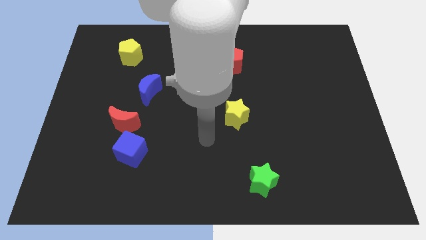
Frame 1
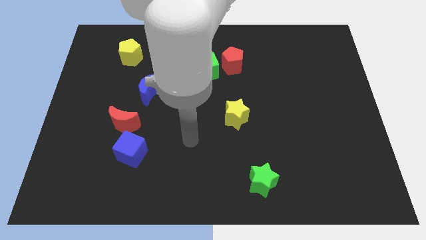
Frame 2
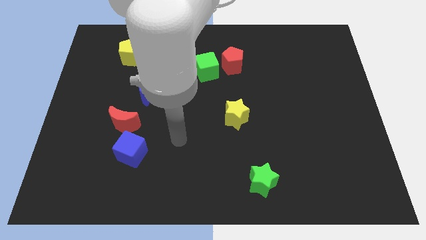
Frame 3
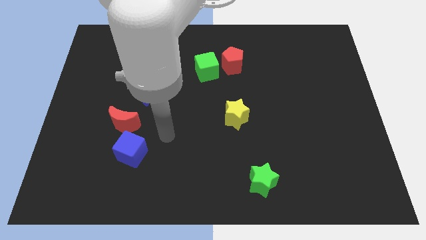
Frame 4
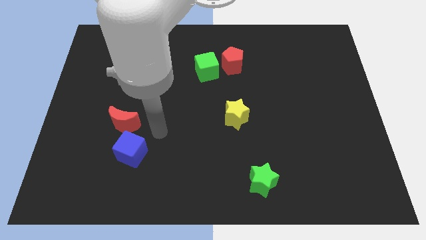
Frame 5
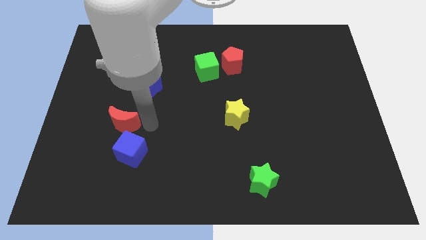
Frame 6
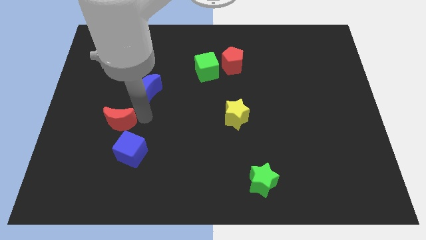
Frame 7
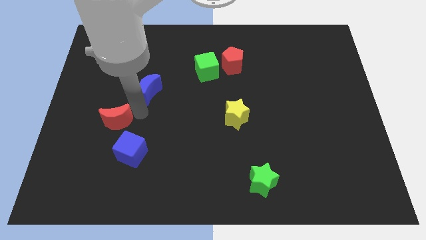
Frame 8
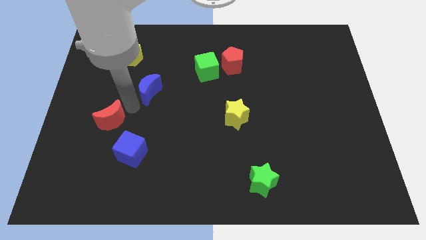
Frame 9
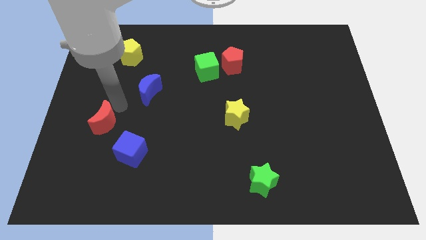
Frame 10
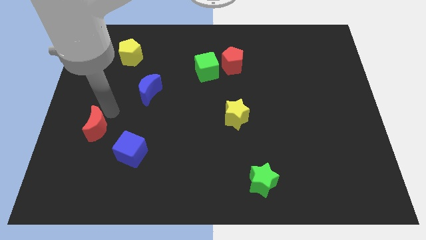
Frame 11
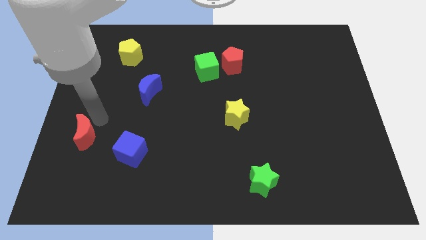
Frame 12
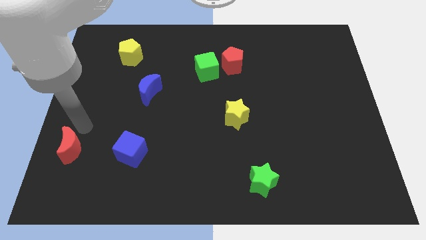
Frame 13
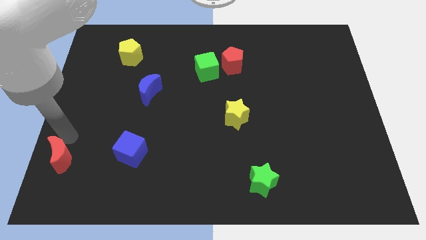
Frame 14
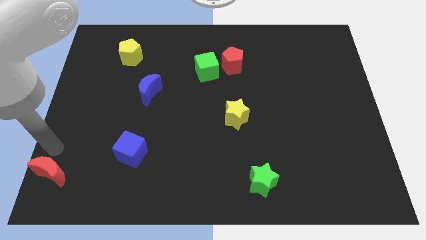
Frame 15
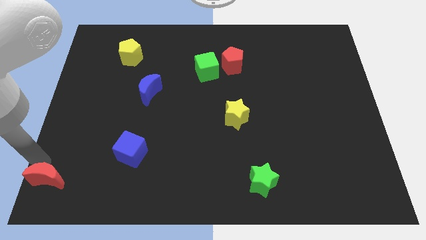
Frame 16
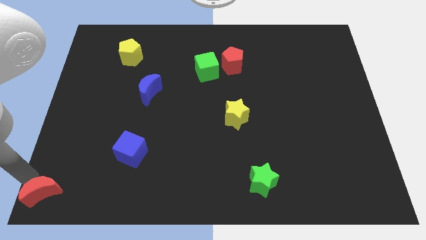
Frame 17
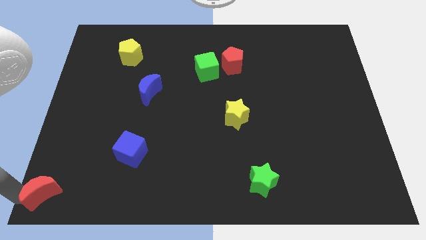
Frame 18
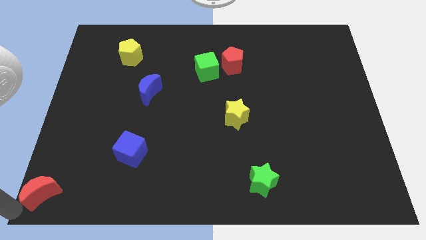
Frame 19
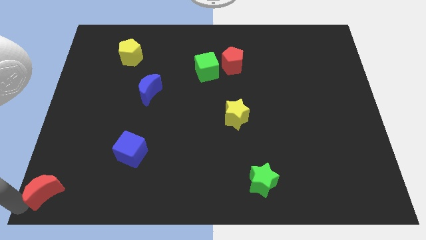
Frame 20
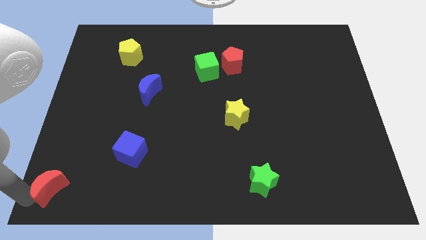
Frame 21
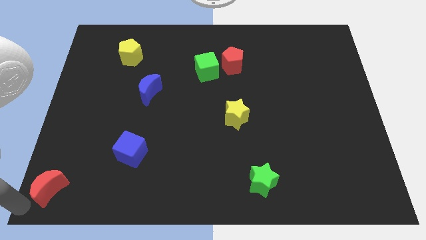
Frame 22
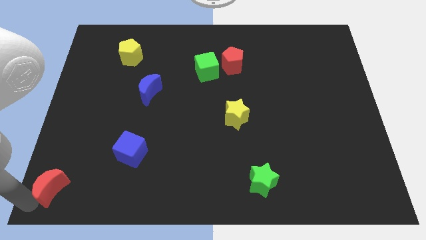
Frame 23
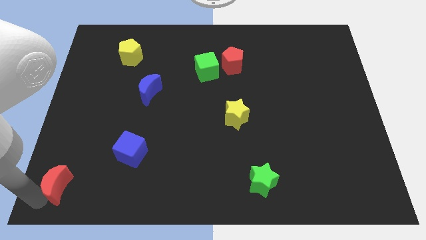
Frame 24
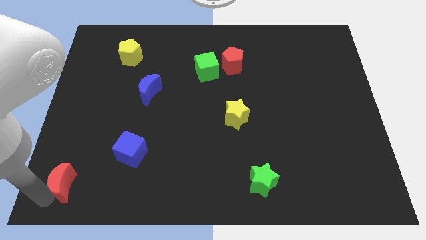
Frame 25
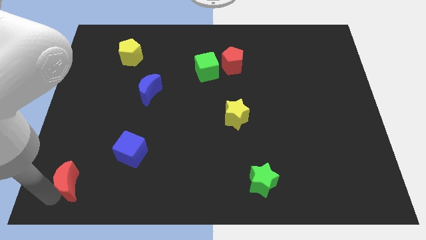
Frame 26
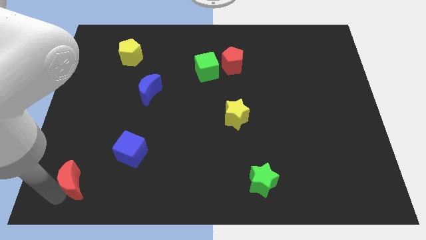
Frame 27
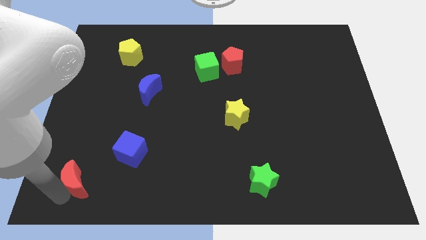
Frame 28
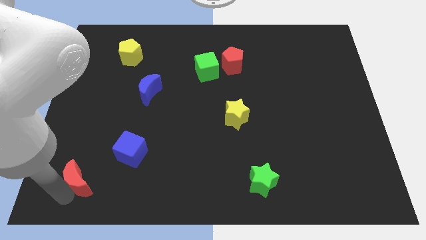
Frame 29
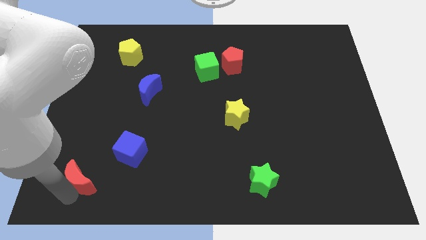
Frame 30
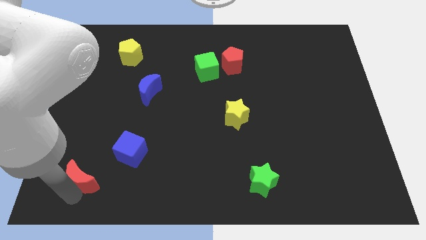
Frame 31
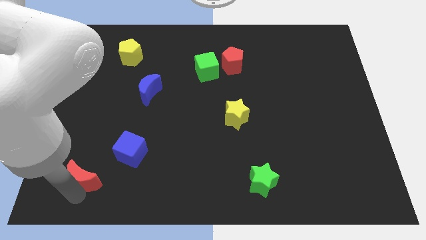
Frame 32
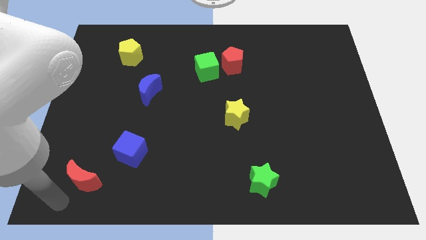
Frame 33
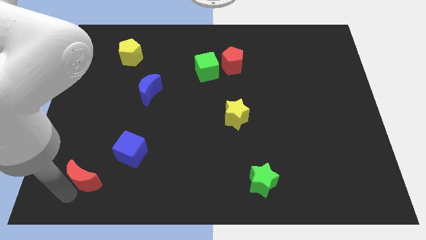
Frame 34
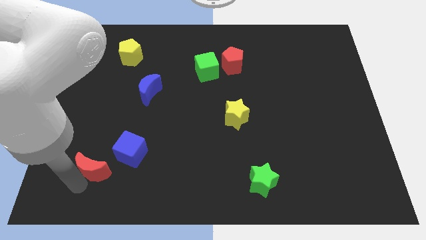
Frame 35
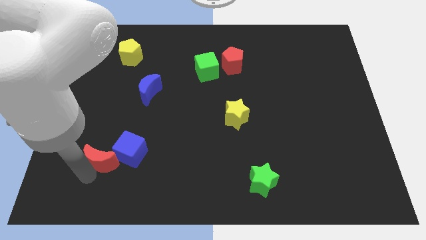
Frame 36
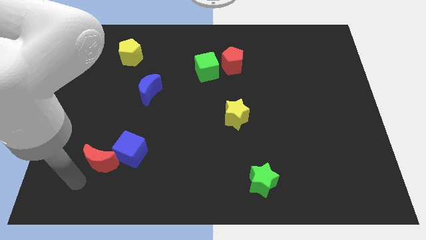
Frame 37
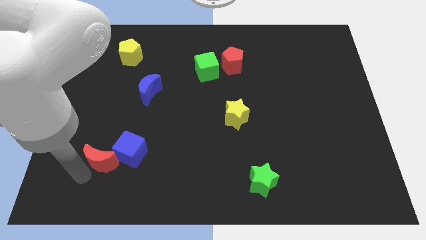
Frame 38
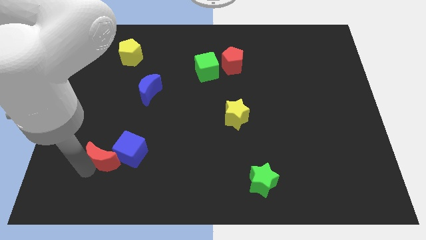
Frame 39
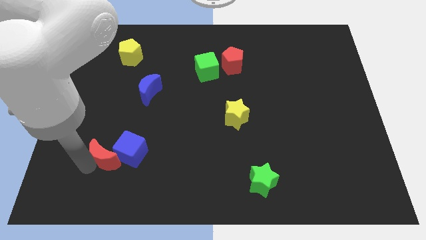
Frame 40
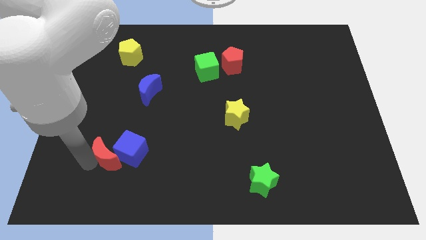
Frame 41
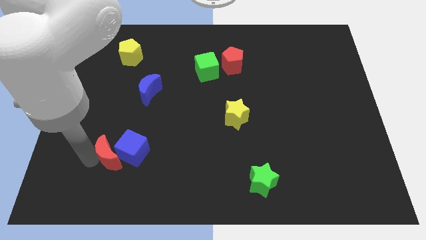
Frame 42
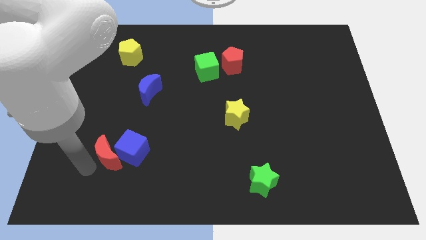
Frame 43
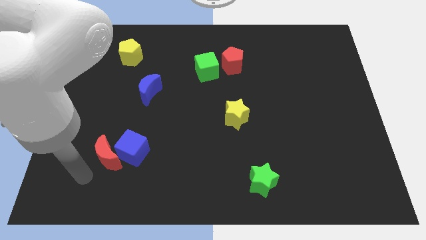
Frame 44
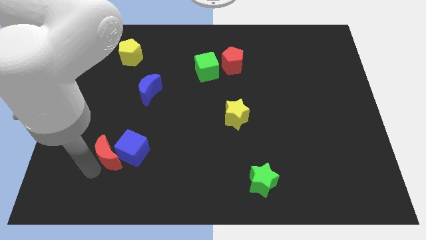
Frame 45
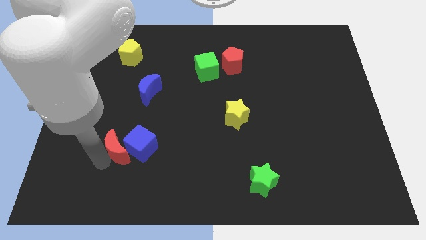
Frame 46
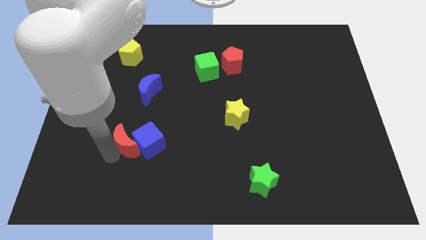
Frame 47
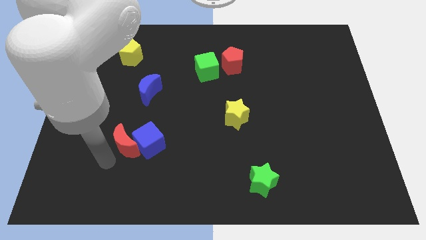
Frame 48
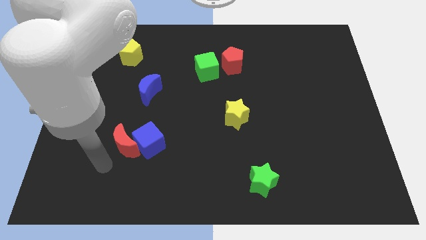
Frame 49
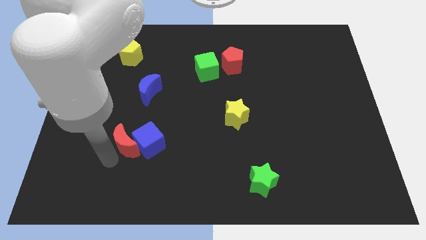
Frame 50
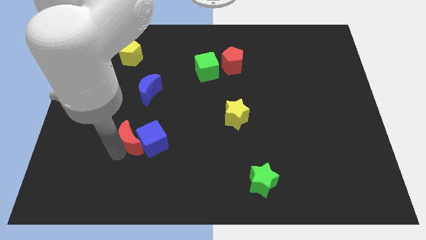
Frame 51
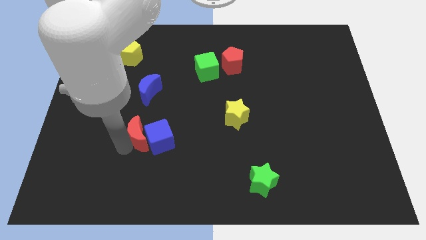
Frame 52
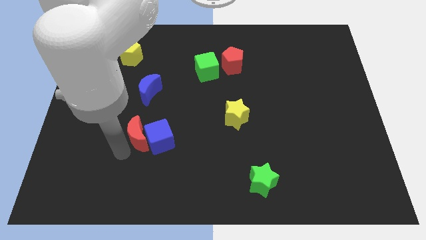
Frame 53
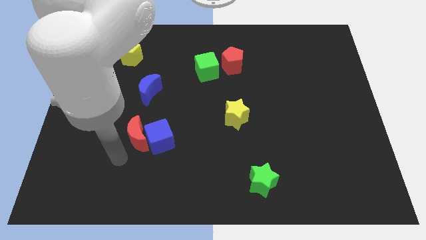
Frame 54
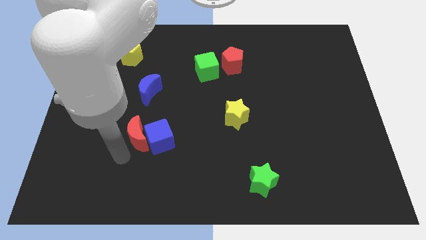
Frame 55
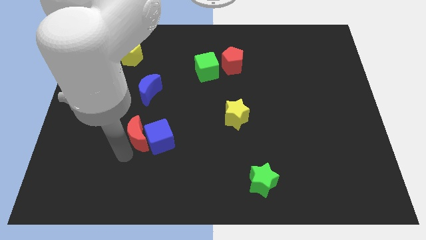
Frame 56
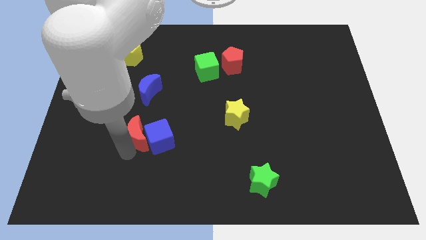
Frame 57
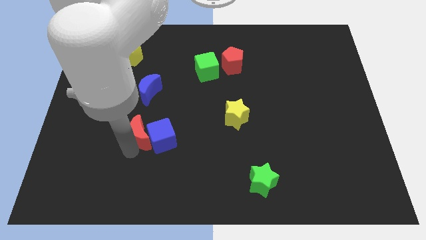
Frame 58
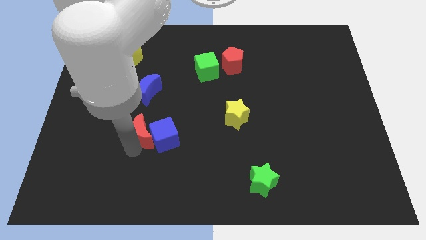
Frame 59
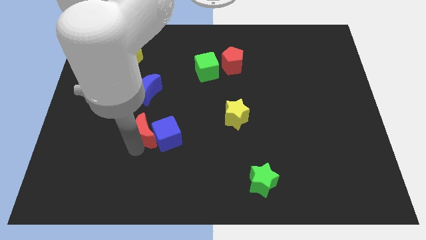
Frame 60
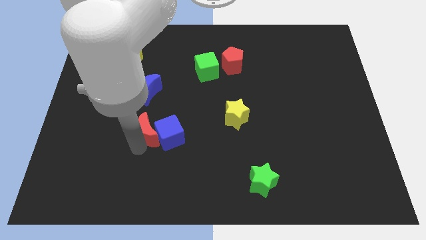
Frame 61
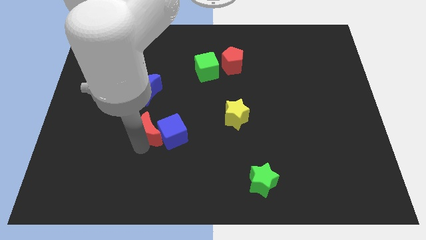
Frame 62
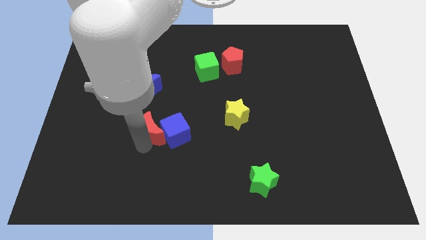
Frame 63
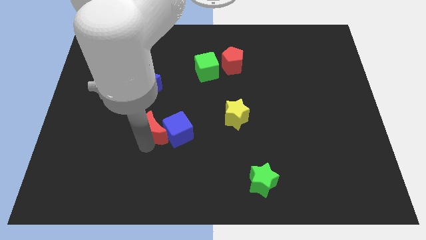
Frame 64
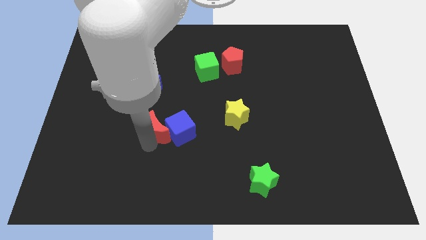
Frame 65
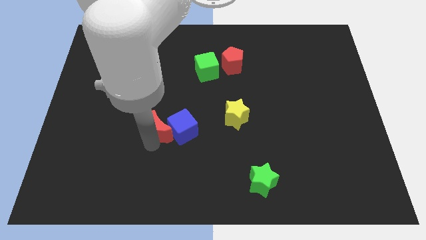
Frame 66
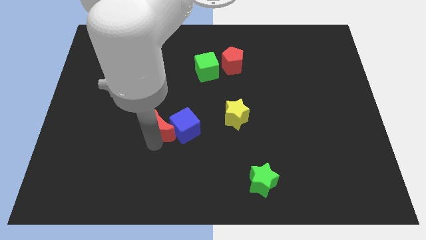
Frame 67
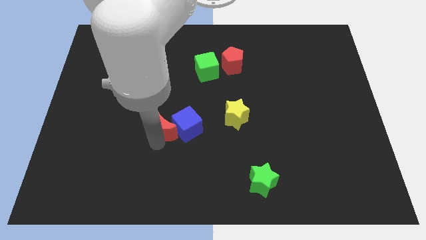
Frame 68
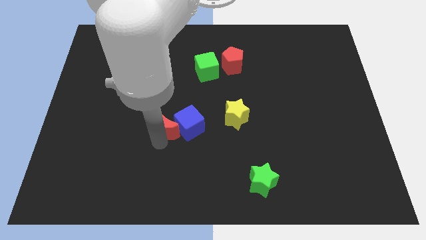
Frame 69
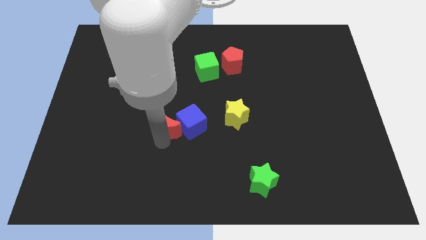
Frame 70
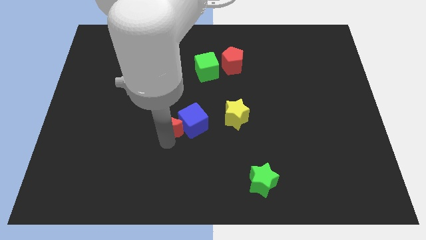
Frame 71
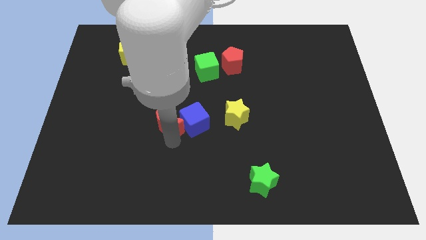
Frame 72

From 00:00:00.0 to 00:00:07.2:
push the red moon to the middle of the board
